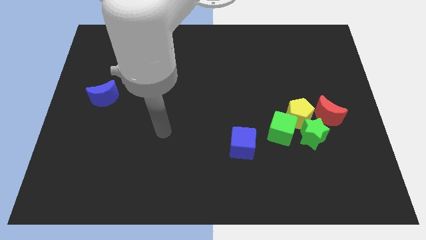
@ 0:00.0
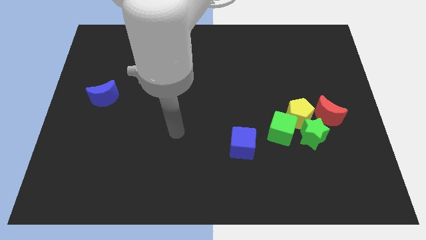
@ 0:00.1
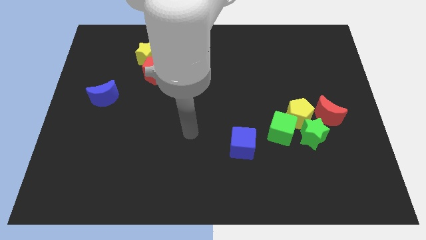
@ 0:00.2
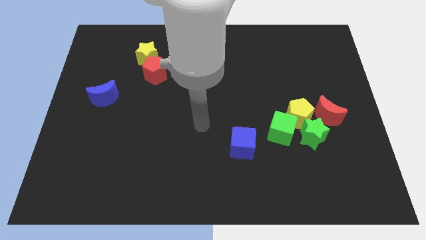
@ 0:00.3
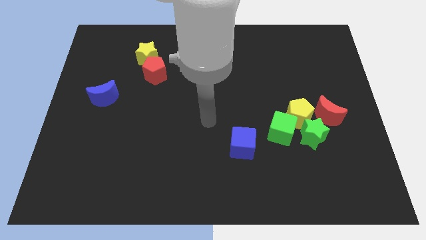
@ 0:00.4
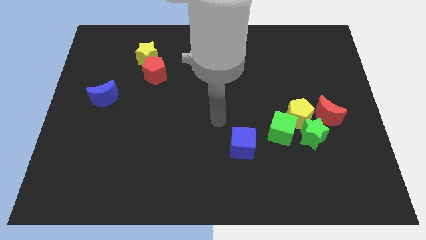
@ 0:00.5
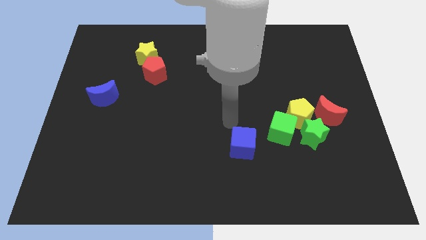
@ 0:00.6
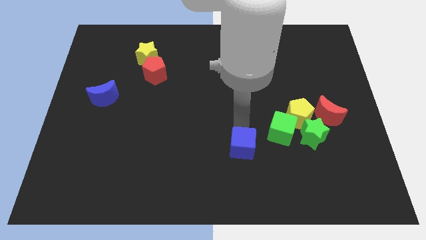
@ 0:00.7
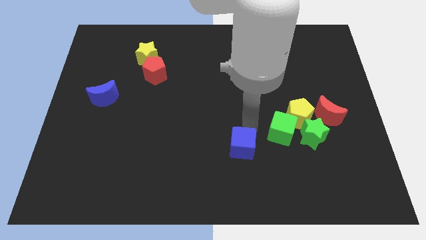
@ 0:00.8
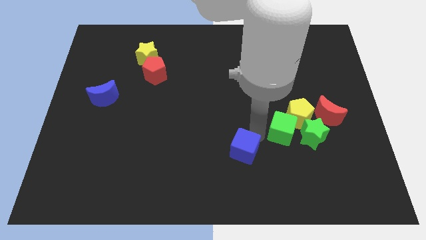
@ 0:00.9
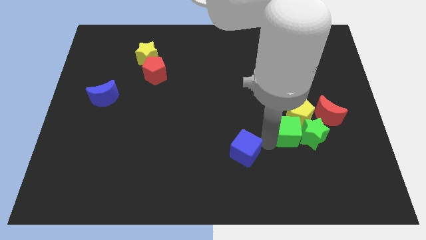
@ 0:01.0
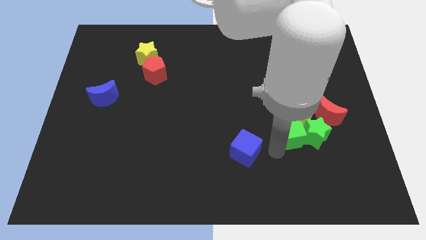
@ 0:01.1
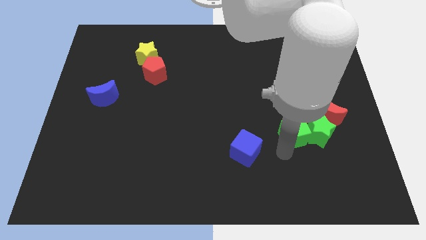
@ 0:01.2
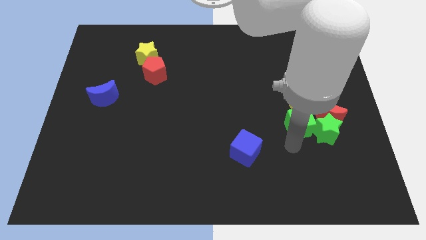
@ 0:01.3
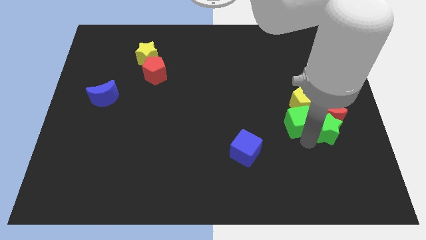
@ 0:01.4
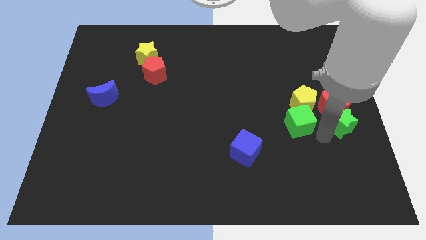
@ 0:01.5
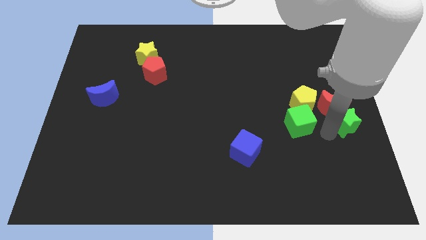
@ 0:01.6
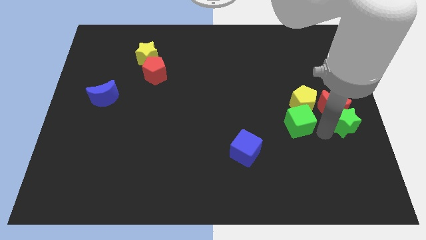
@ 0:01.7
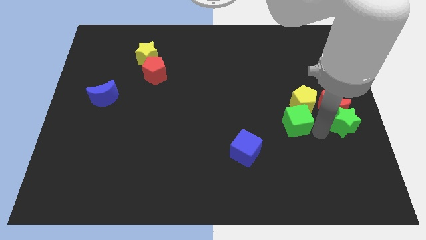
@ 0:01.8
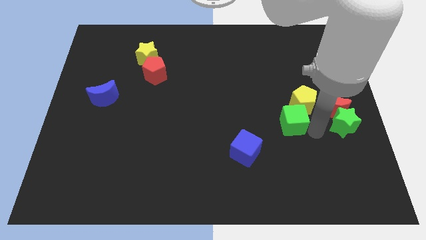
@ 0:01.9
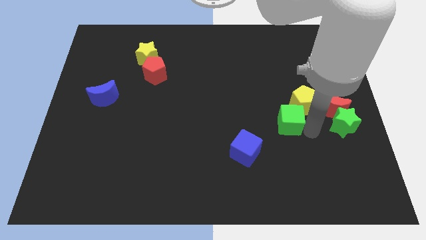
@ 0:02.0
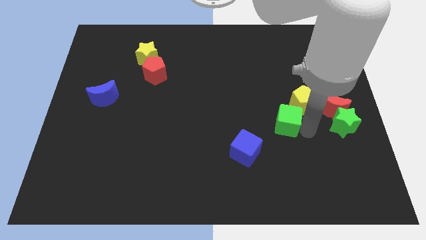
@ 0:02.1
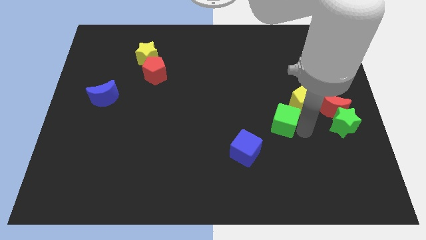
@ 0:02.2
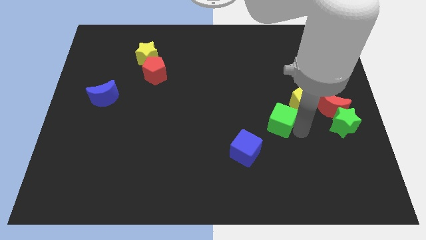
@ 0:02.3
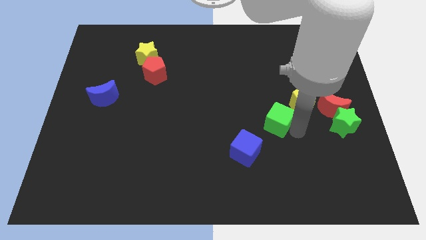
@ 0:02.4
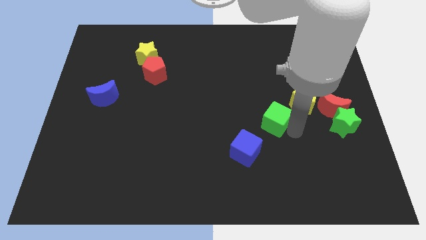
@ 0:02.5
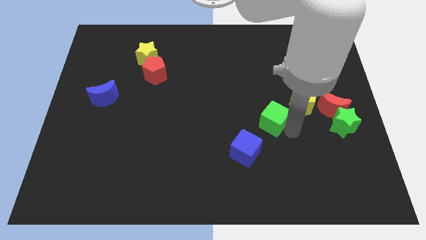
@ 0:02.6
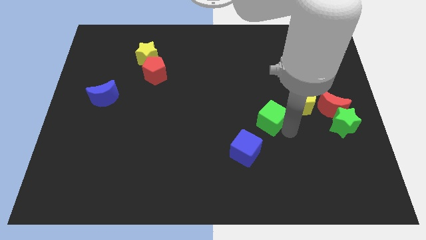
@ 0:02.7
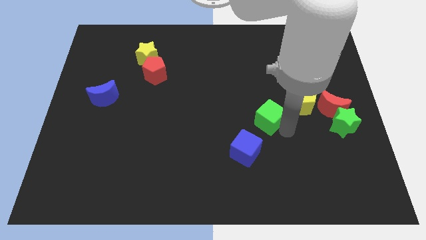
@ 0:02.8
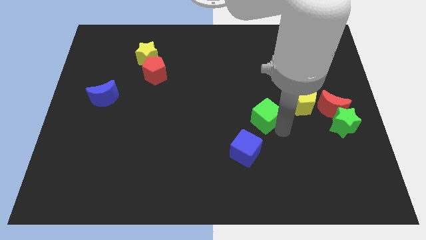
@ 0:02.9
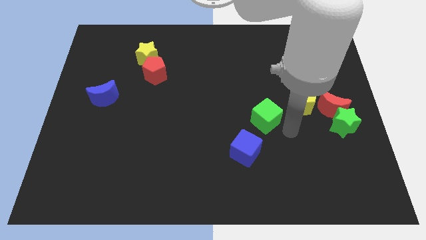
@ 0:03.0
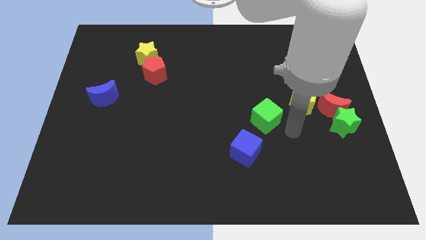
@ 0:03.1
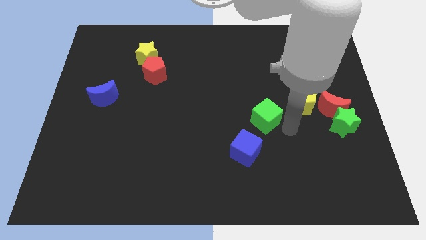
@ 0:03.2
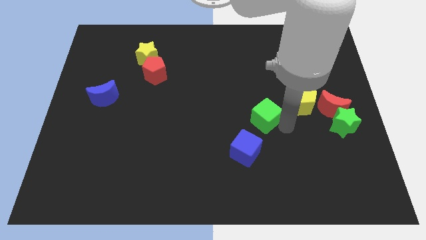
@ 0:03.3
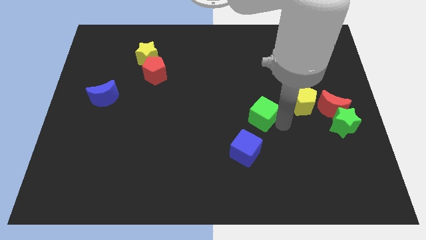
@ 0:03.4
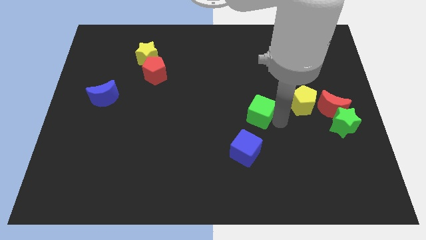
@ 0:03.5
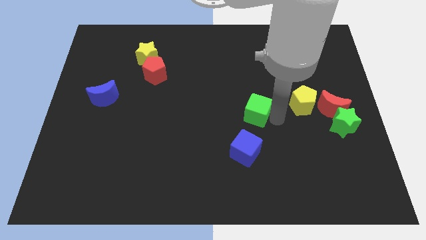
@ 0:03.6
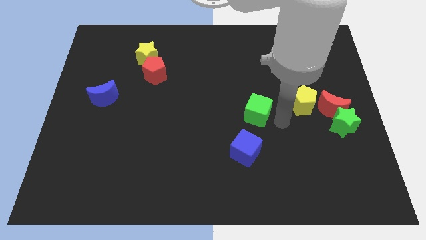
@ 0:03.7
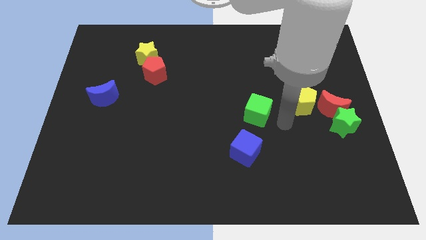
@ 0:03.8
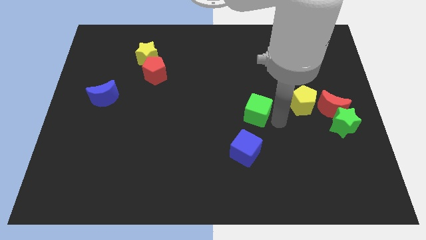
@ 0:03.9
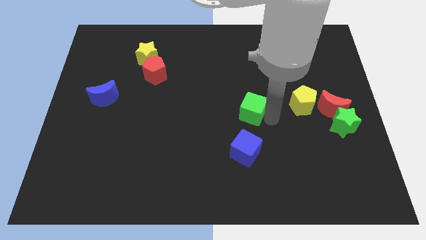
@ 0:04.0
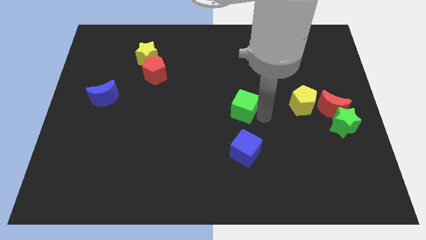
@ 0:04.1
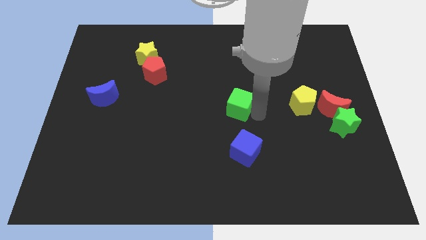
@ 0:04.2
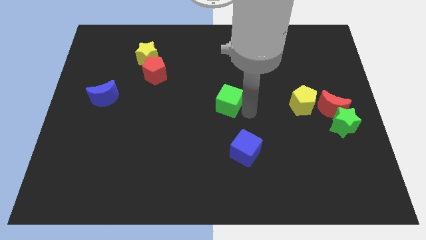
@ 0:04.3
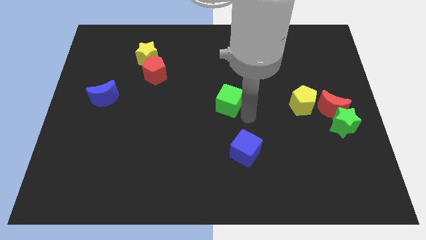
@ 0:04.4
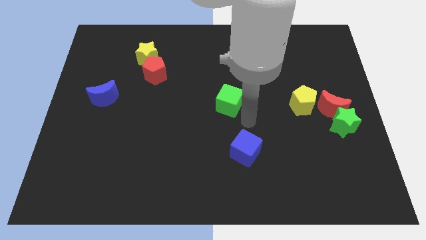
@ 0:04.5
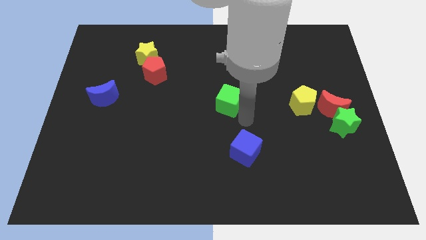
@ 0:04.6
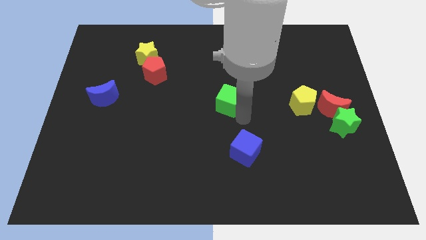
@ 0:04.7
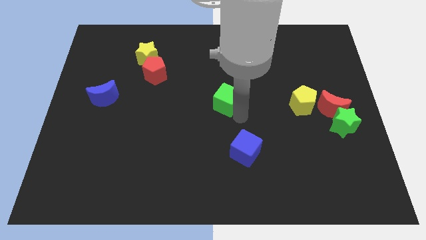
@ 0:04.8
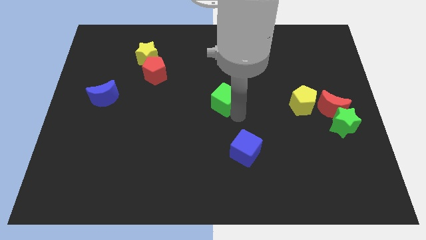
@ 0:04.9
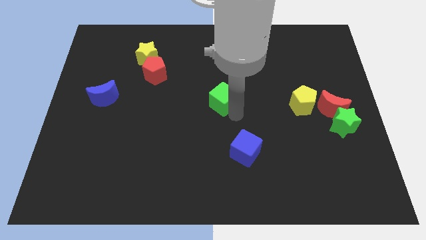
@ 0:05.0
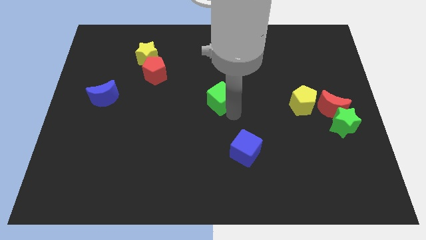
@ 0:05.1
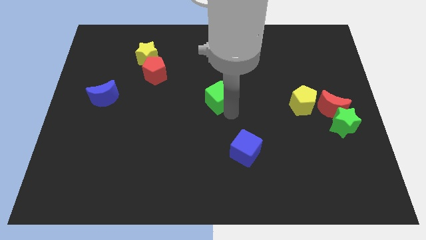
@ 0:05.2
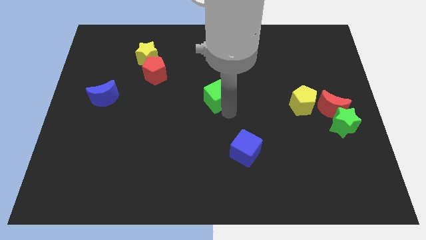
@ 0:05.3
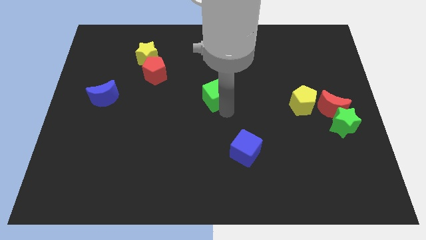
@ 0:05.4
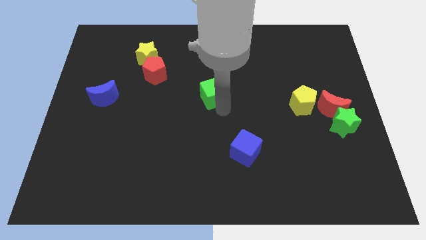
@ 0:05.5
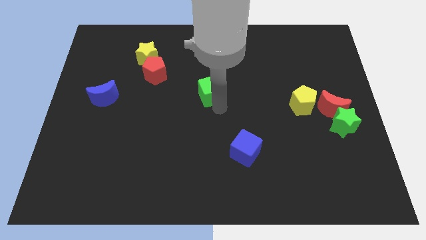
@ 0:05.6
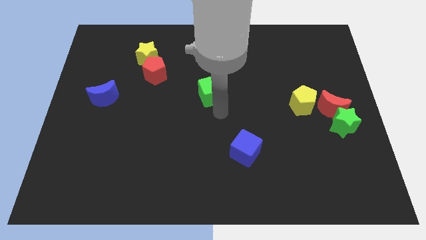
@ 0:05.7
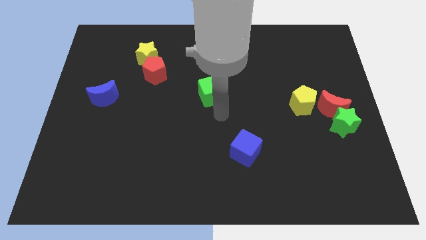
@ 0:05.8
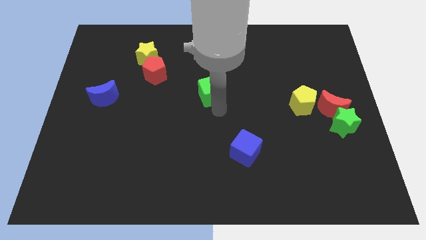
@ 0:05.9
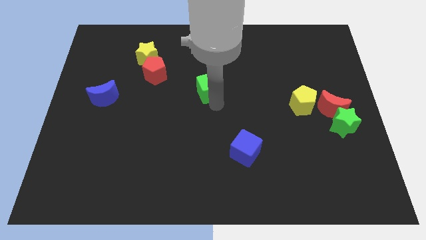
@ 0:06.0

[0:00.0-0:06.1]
move the green cube upwards and then left

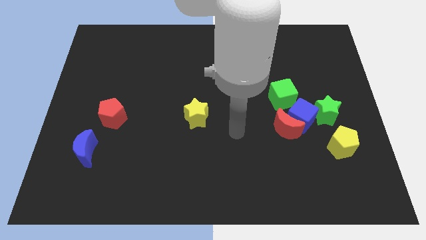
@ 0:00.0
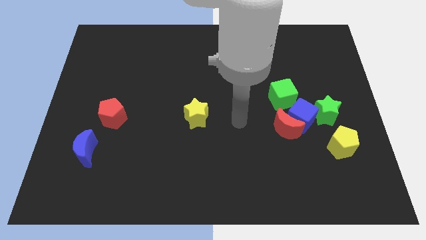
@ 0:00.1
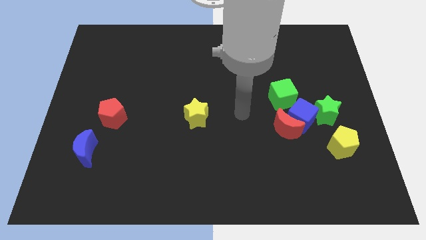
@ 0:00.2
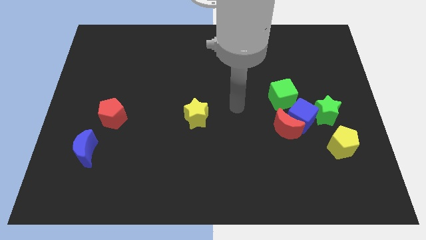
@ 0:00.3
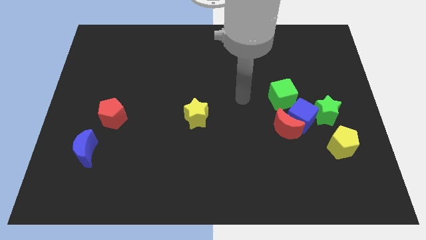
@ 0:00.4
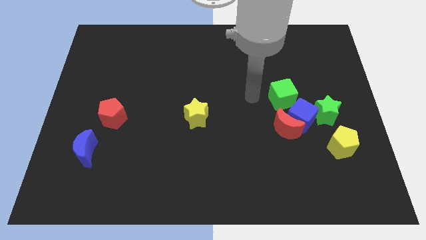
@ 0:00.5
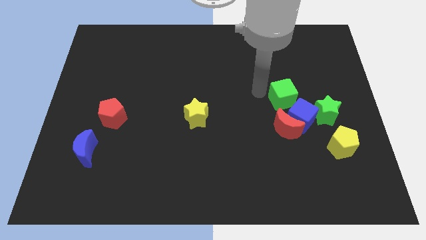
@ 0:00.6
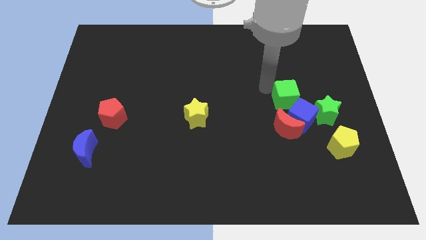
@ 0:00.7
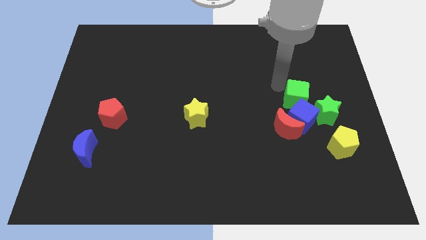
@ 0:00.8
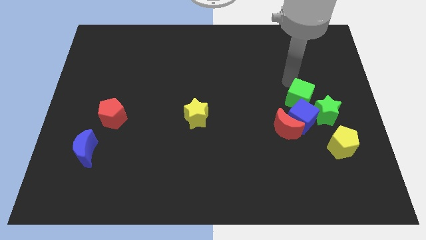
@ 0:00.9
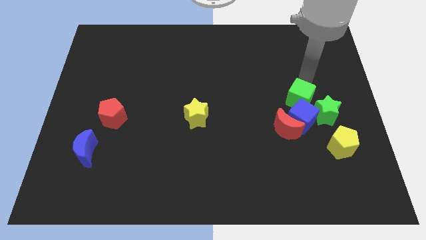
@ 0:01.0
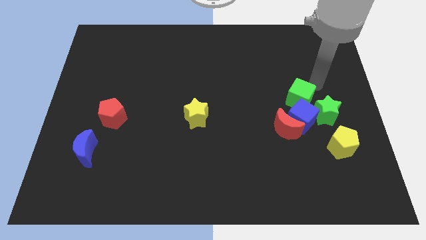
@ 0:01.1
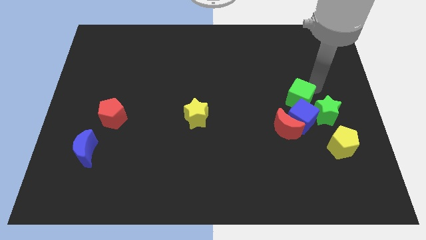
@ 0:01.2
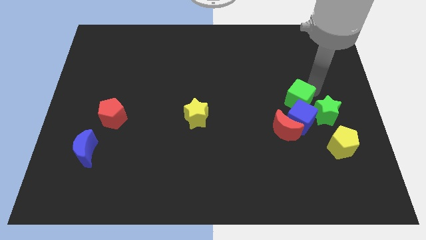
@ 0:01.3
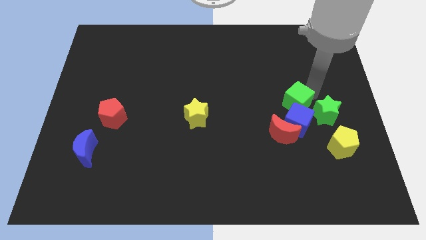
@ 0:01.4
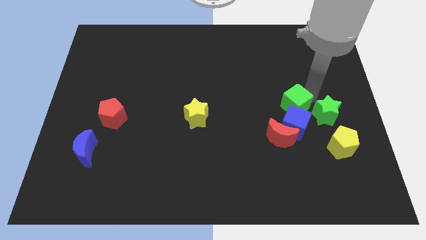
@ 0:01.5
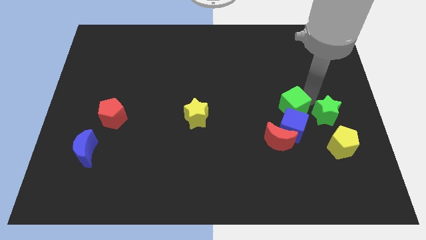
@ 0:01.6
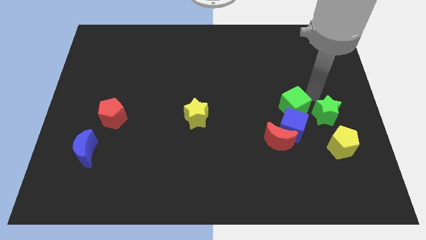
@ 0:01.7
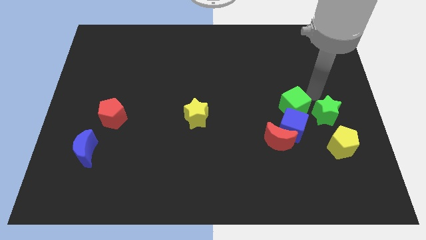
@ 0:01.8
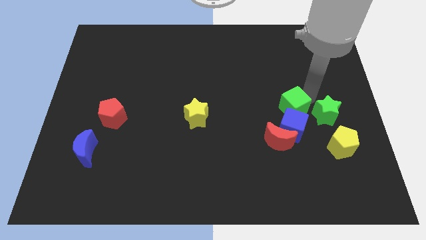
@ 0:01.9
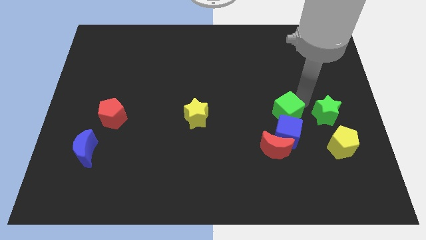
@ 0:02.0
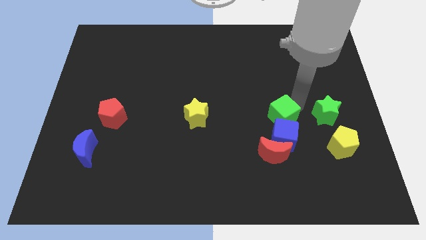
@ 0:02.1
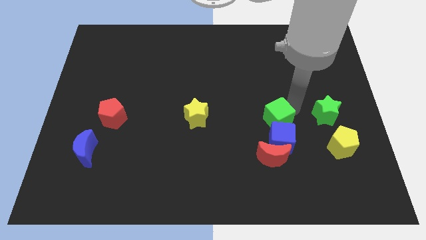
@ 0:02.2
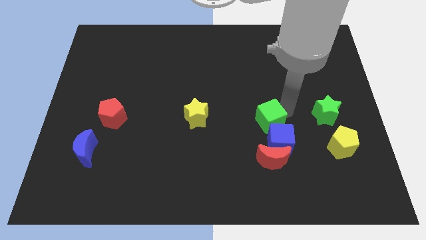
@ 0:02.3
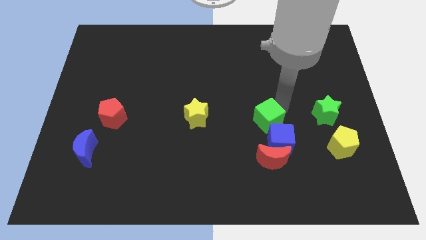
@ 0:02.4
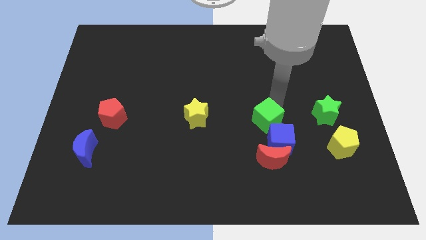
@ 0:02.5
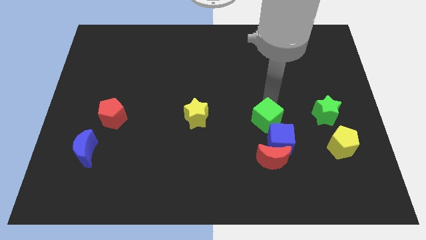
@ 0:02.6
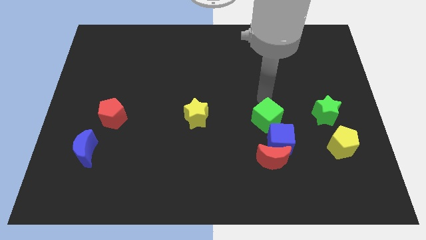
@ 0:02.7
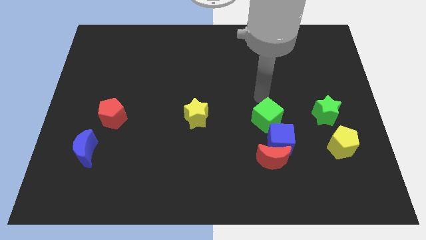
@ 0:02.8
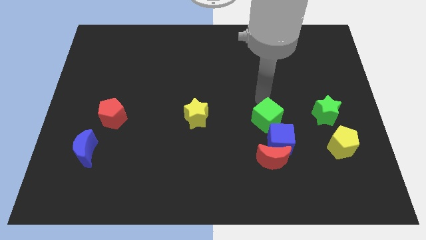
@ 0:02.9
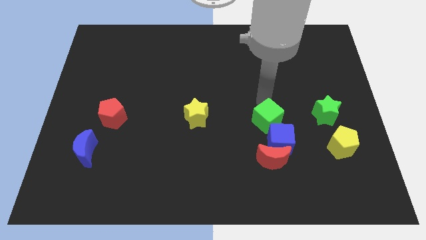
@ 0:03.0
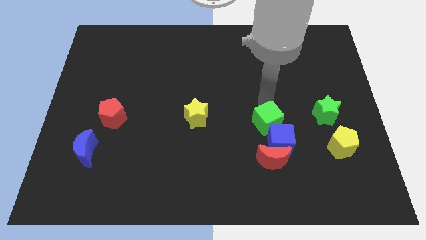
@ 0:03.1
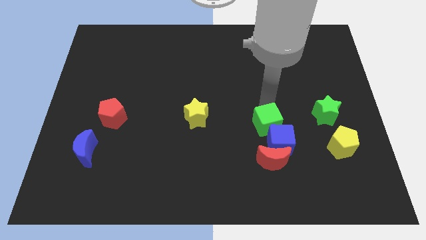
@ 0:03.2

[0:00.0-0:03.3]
push the green cube a little bit down
